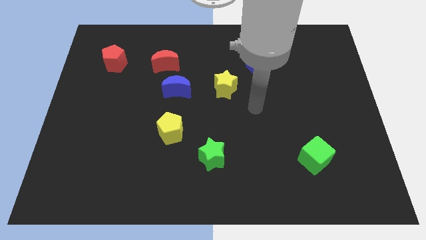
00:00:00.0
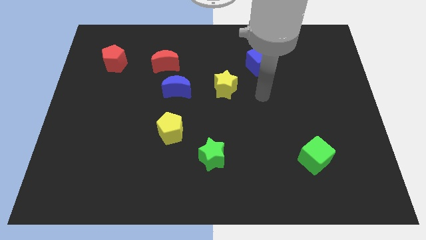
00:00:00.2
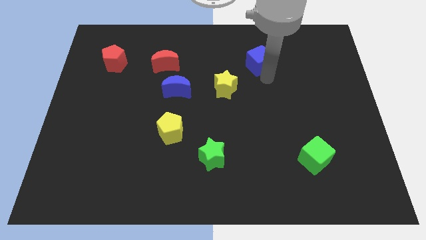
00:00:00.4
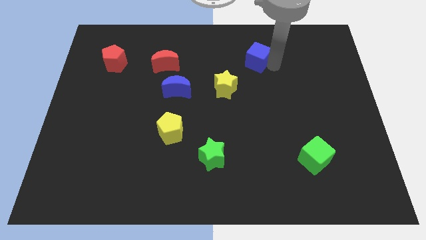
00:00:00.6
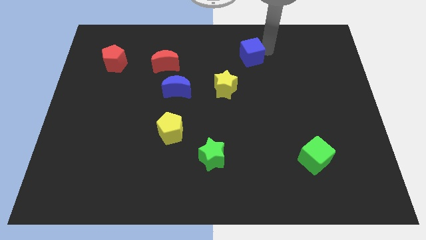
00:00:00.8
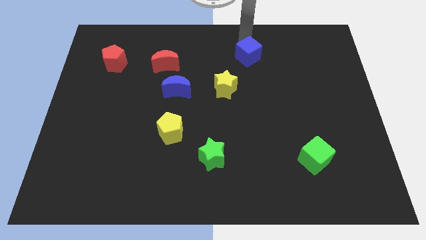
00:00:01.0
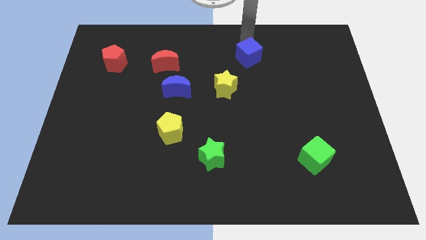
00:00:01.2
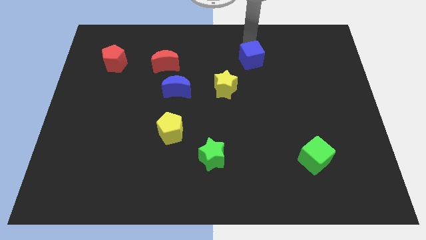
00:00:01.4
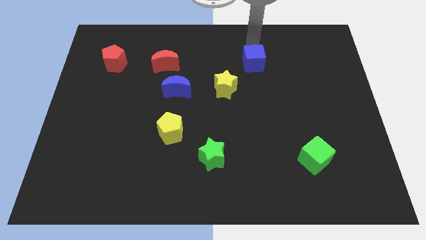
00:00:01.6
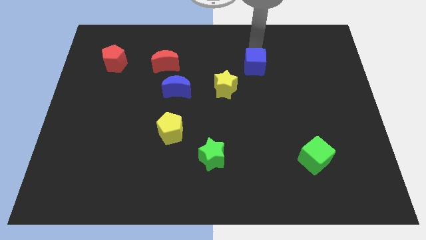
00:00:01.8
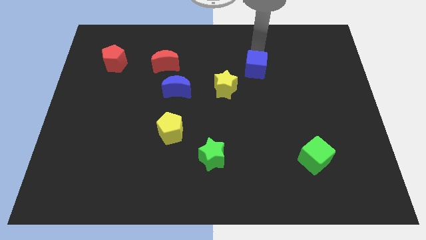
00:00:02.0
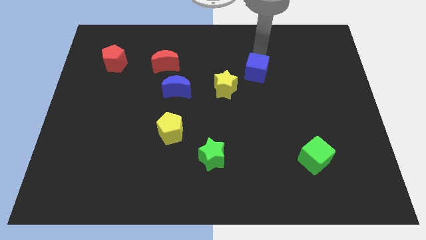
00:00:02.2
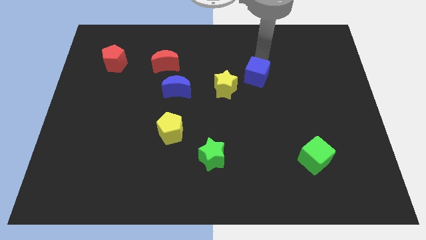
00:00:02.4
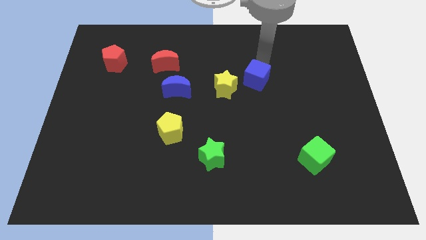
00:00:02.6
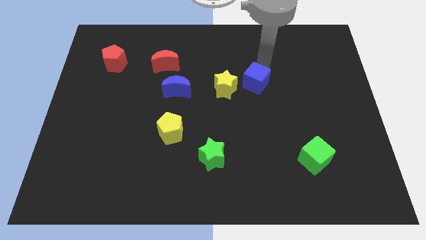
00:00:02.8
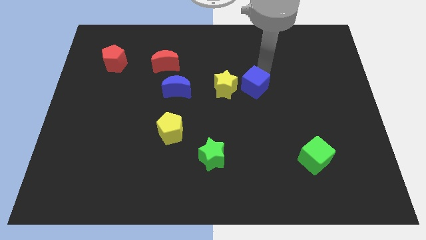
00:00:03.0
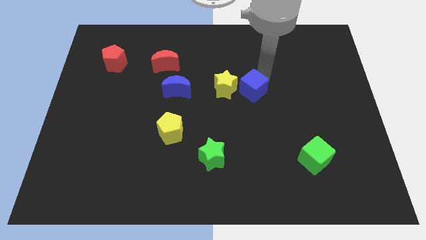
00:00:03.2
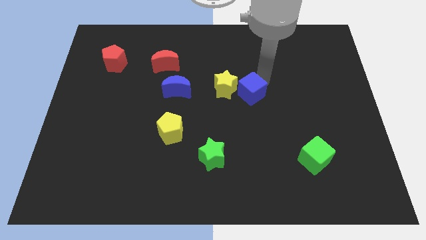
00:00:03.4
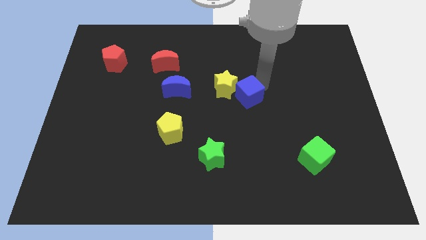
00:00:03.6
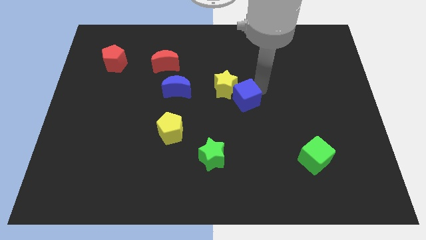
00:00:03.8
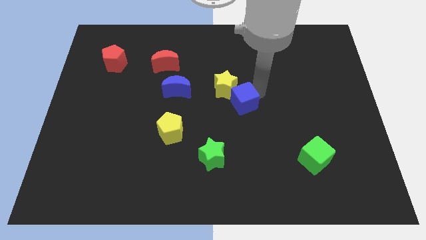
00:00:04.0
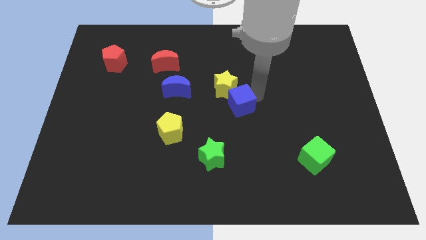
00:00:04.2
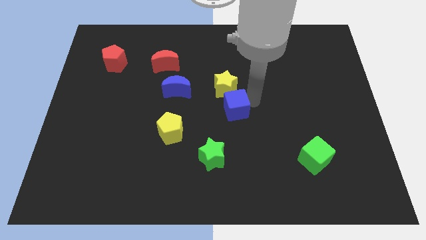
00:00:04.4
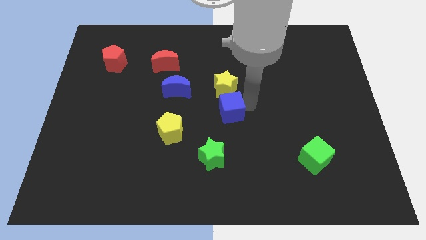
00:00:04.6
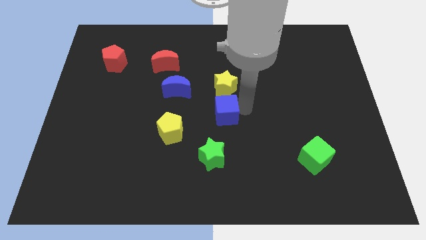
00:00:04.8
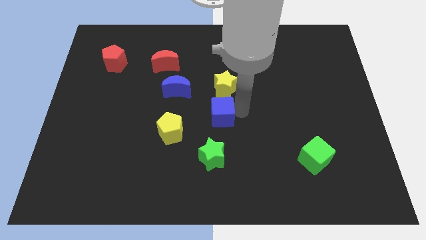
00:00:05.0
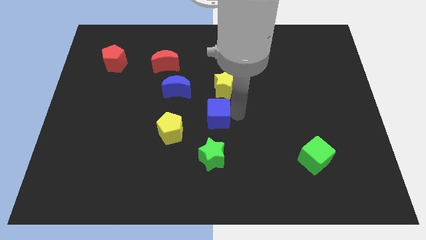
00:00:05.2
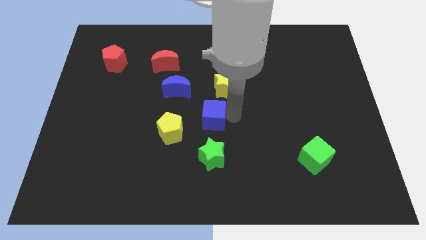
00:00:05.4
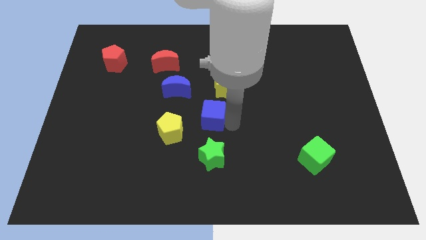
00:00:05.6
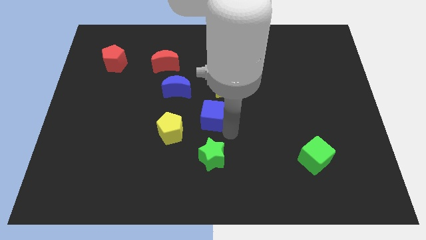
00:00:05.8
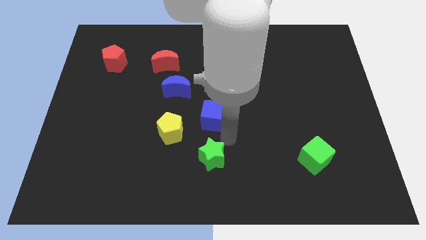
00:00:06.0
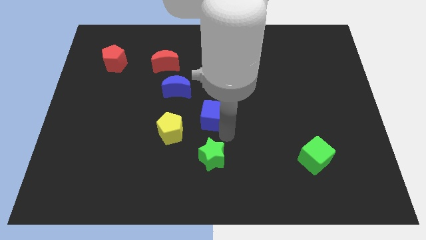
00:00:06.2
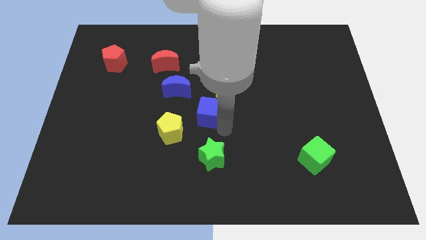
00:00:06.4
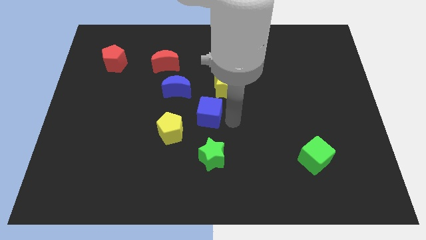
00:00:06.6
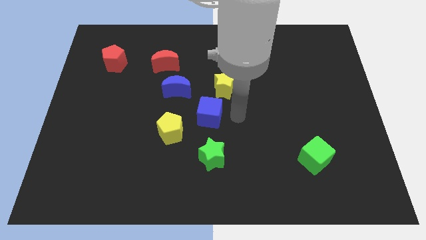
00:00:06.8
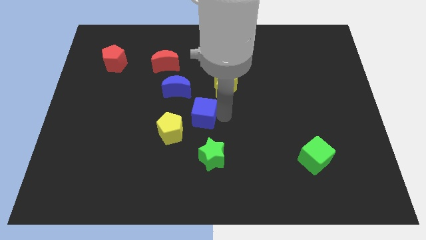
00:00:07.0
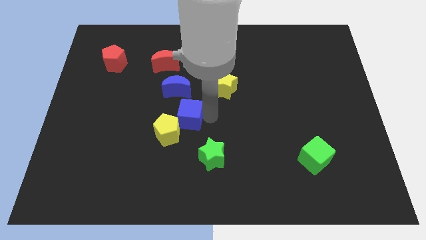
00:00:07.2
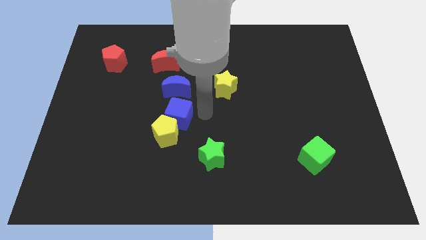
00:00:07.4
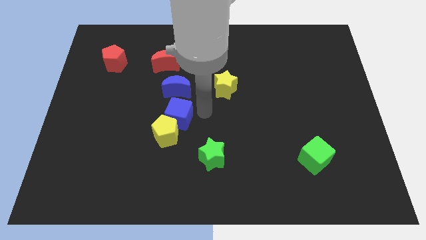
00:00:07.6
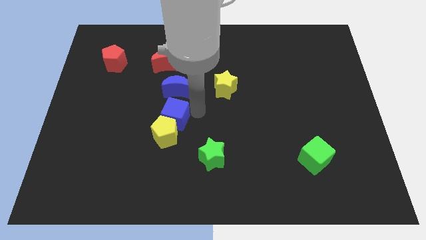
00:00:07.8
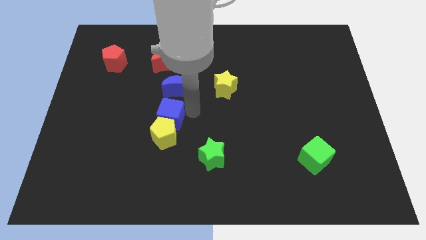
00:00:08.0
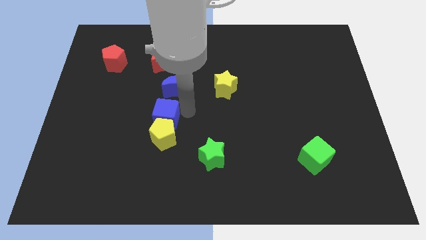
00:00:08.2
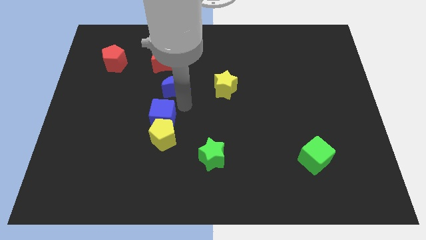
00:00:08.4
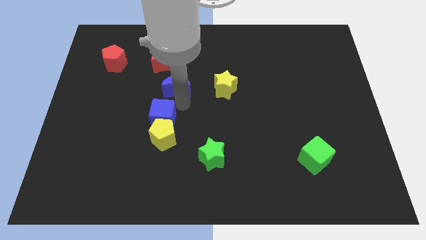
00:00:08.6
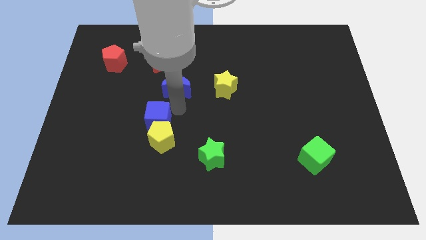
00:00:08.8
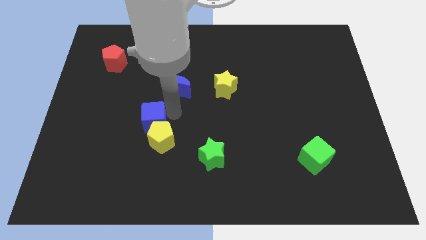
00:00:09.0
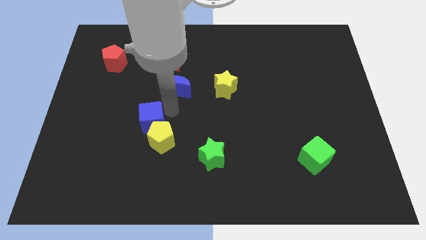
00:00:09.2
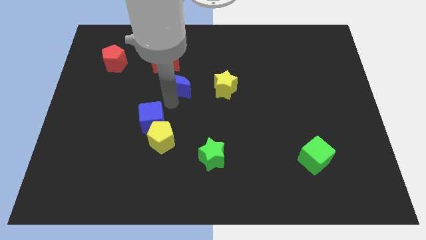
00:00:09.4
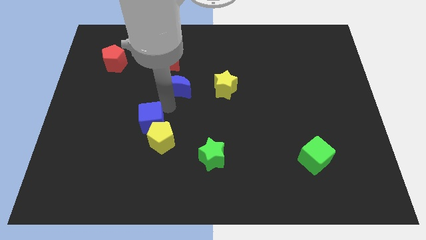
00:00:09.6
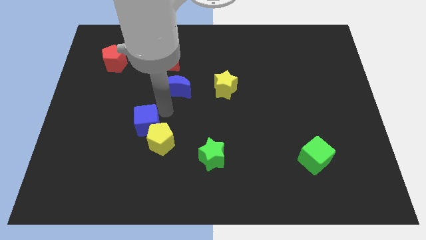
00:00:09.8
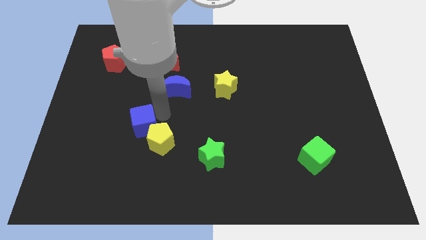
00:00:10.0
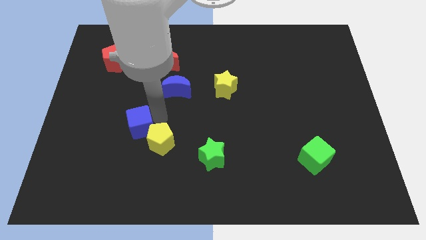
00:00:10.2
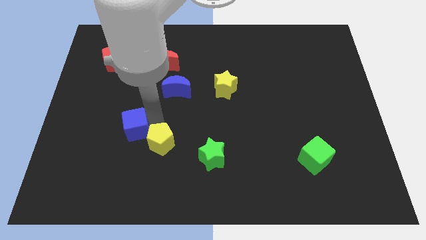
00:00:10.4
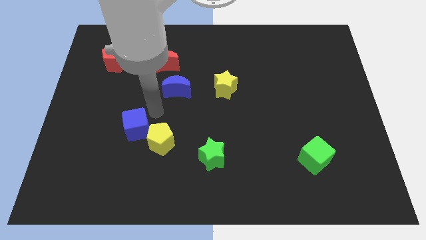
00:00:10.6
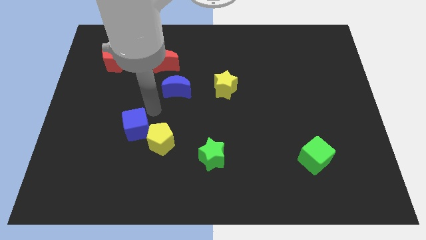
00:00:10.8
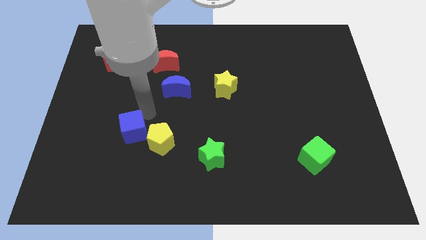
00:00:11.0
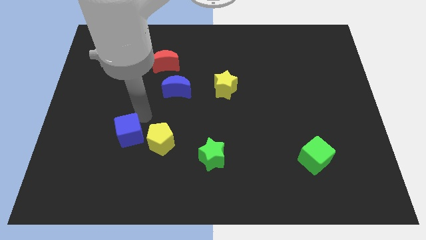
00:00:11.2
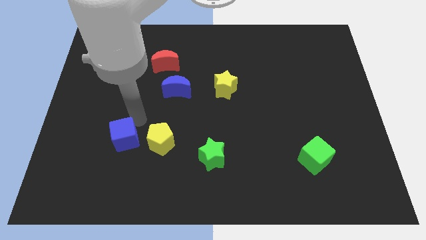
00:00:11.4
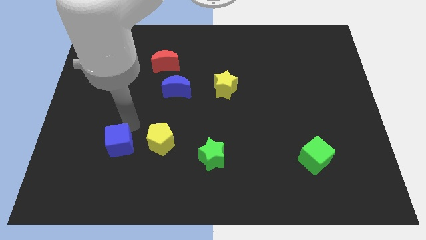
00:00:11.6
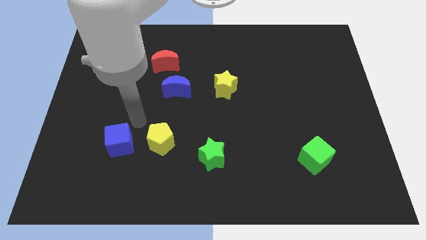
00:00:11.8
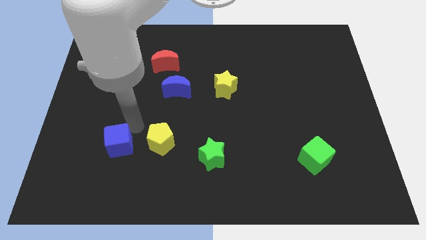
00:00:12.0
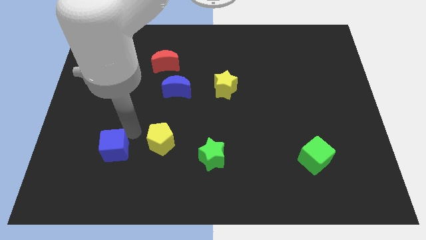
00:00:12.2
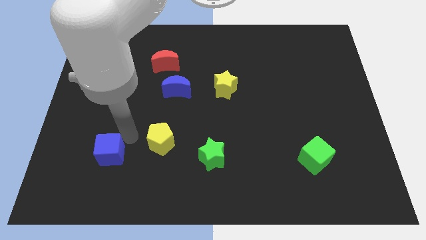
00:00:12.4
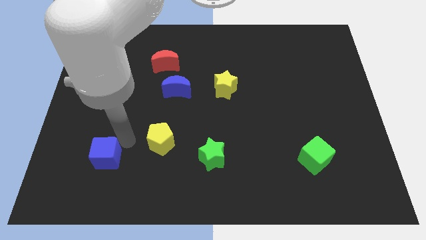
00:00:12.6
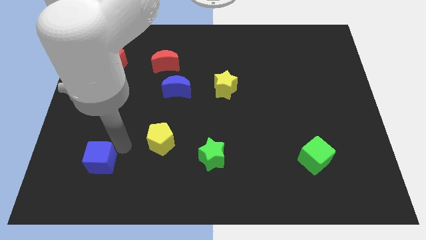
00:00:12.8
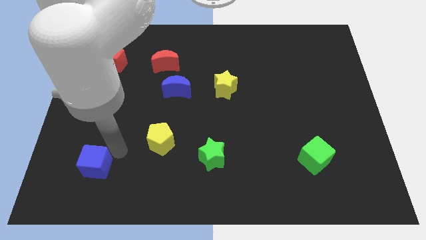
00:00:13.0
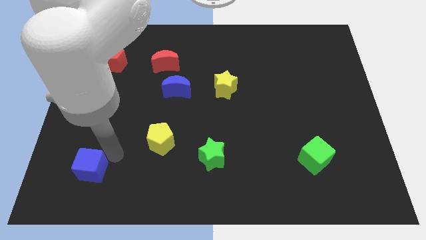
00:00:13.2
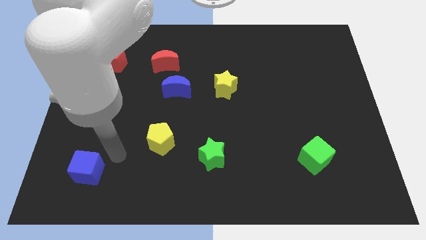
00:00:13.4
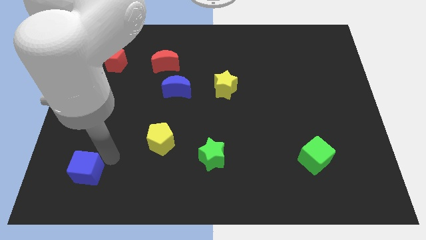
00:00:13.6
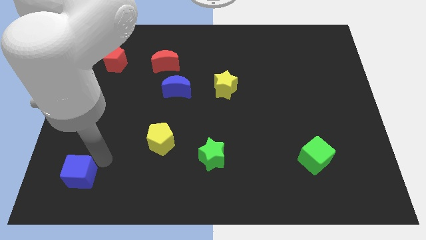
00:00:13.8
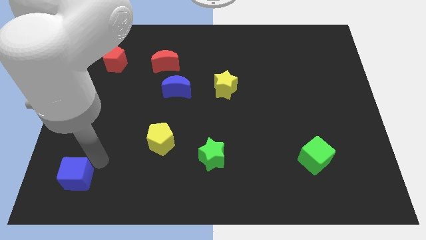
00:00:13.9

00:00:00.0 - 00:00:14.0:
slide the blue cube to the lower left corner
